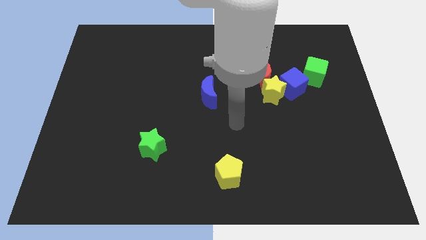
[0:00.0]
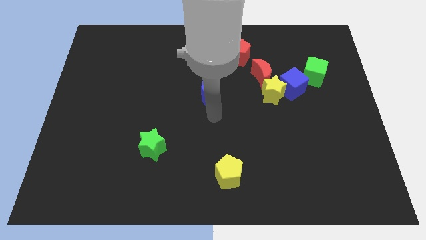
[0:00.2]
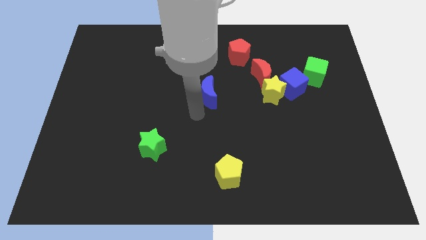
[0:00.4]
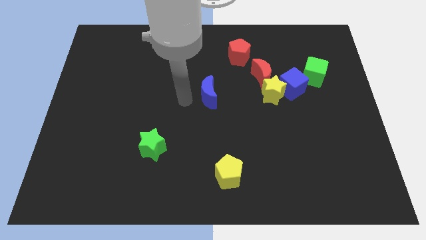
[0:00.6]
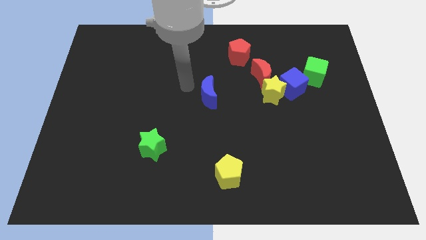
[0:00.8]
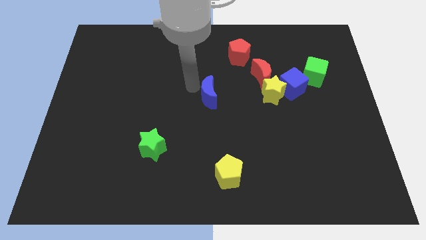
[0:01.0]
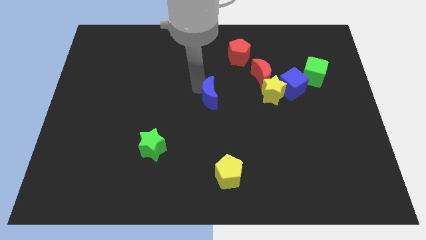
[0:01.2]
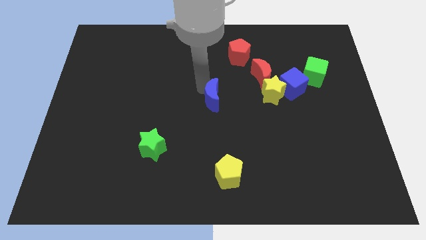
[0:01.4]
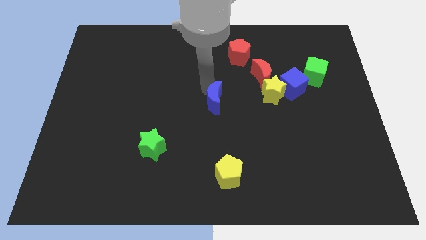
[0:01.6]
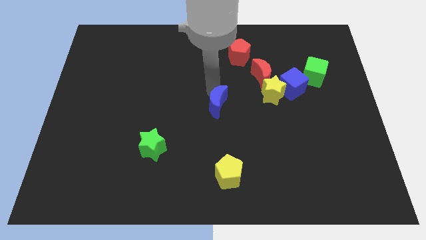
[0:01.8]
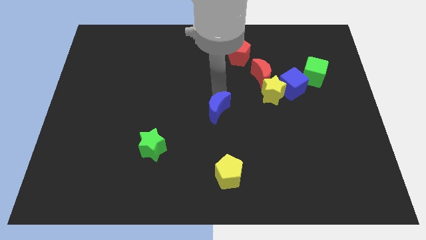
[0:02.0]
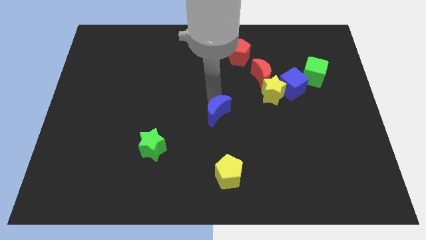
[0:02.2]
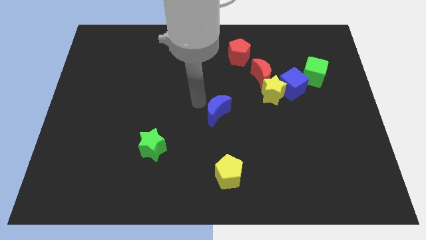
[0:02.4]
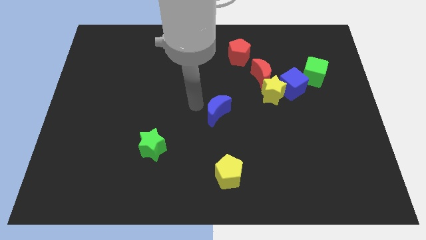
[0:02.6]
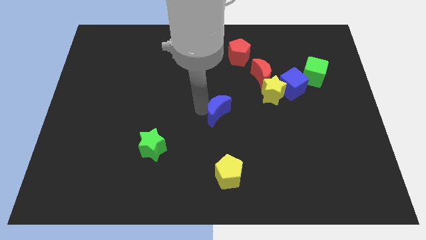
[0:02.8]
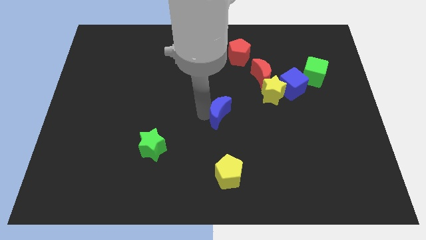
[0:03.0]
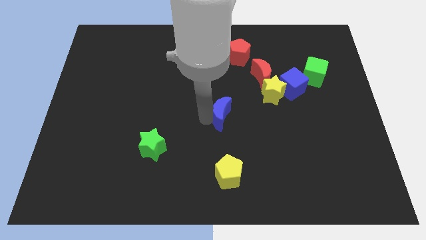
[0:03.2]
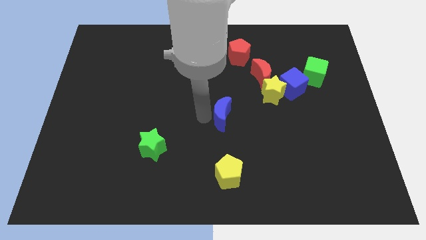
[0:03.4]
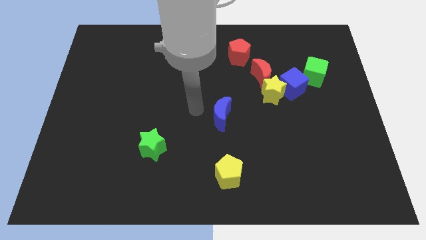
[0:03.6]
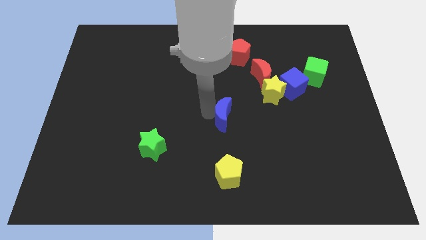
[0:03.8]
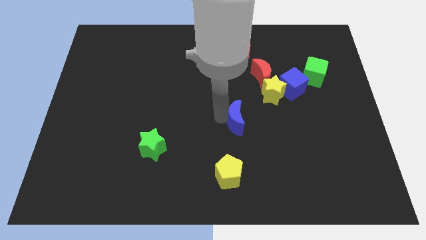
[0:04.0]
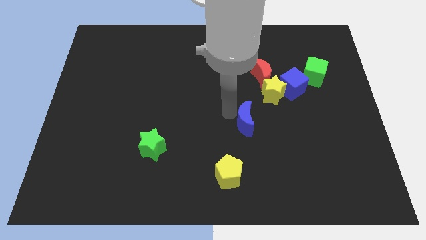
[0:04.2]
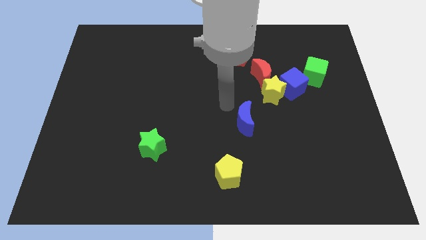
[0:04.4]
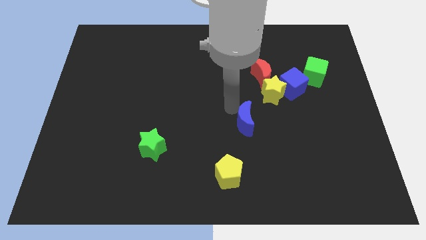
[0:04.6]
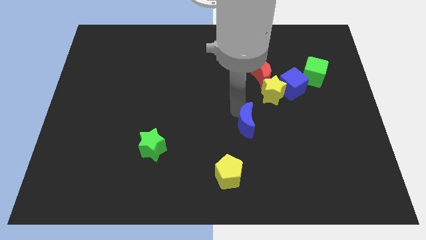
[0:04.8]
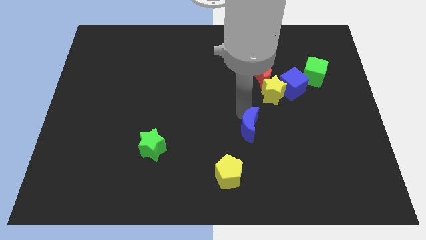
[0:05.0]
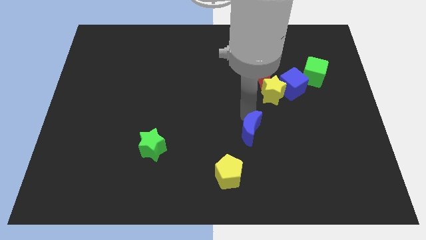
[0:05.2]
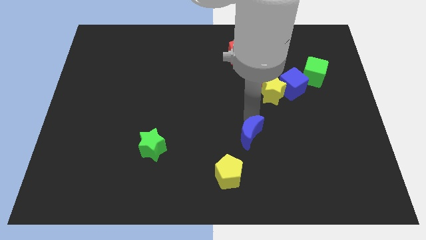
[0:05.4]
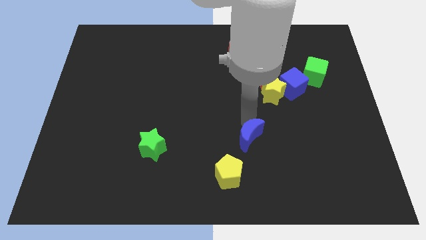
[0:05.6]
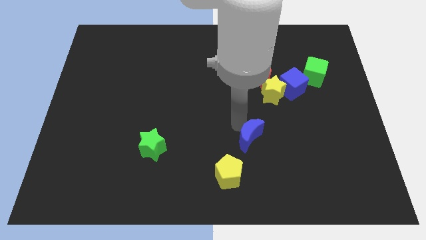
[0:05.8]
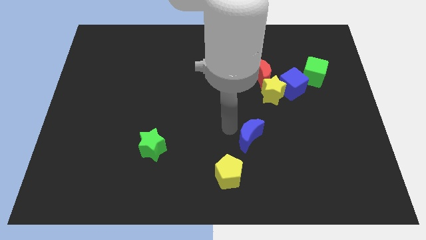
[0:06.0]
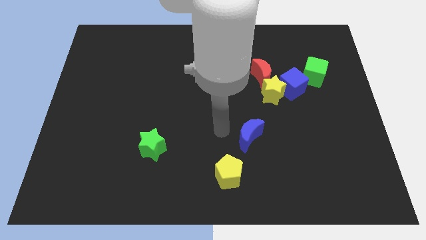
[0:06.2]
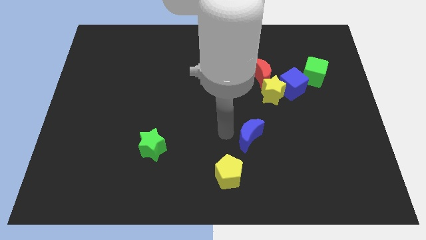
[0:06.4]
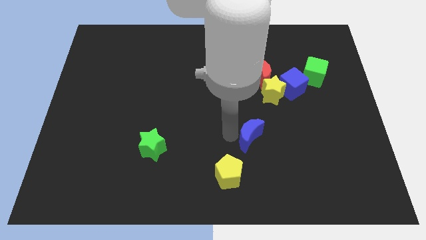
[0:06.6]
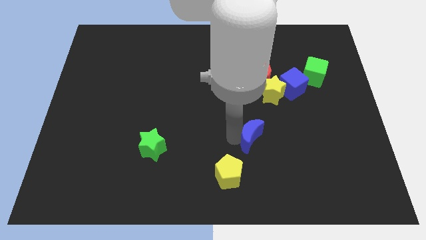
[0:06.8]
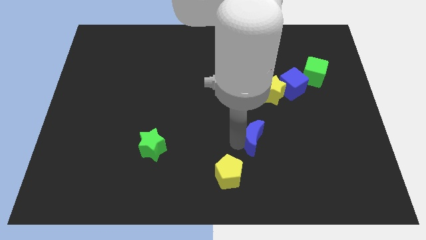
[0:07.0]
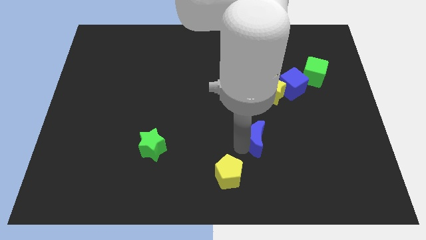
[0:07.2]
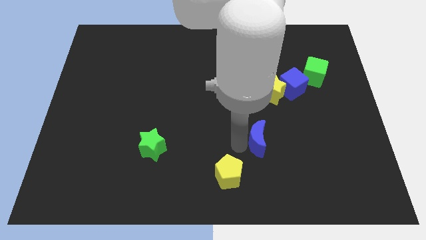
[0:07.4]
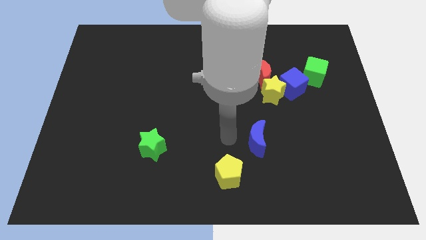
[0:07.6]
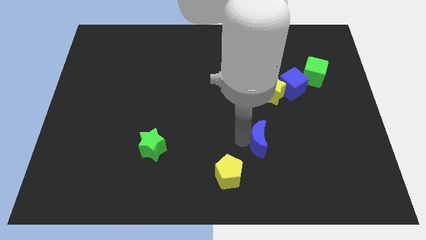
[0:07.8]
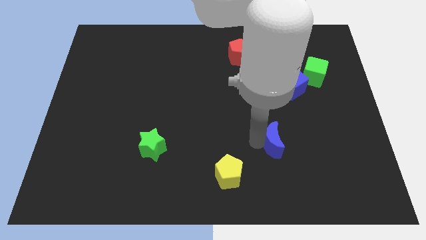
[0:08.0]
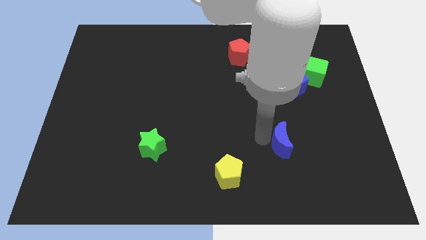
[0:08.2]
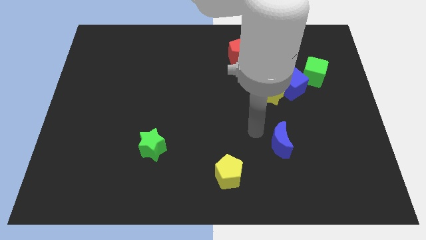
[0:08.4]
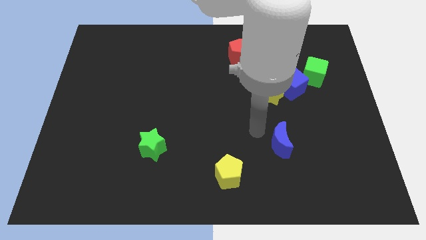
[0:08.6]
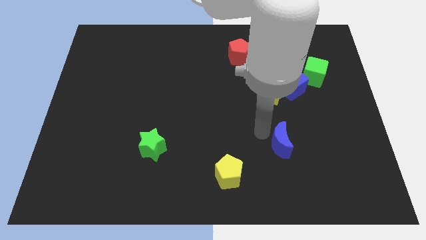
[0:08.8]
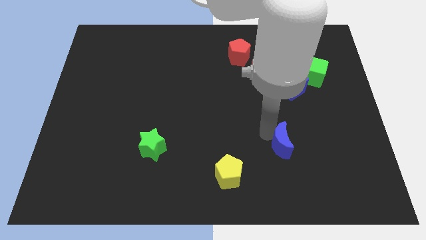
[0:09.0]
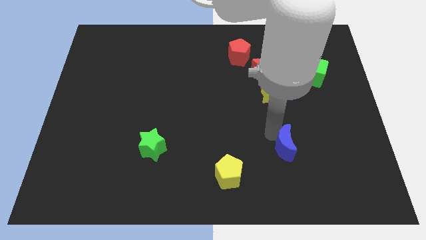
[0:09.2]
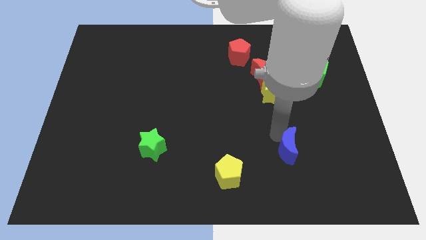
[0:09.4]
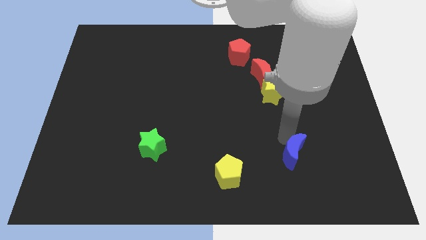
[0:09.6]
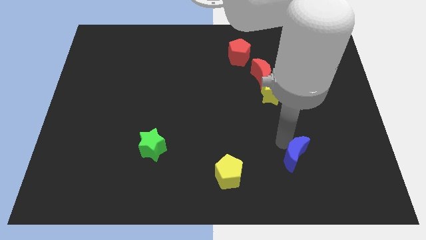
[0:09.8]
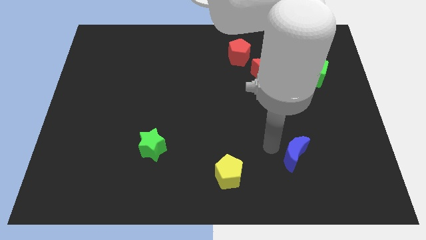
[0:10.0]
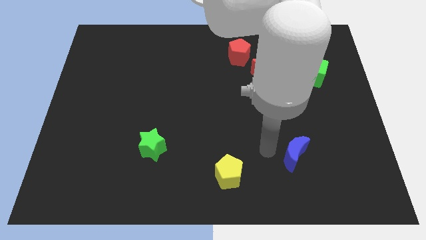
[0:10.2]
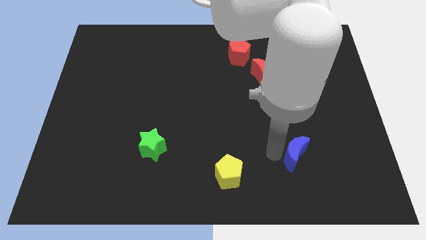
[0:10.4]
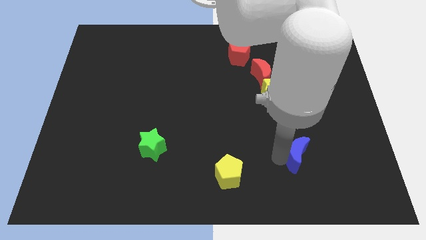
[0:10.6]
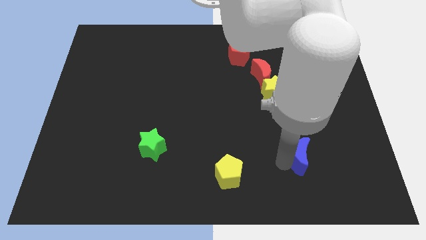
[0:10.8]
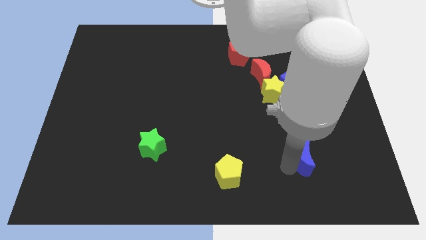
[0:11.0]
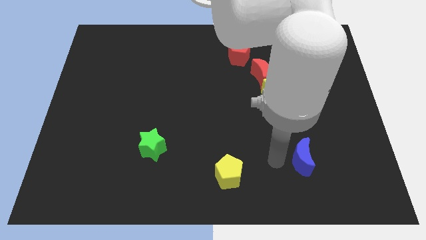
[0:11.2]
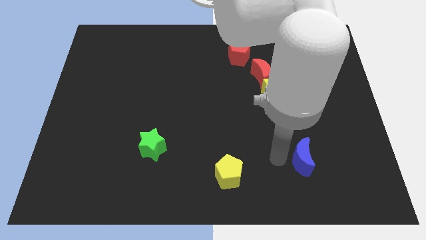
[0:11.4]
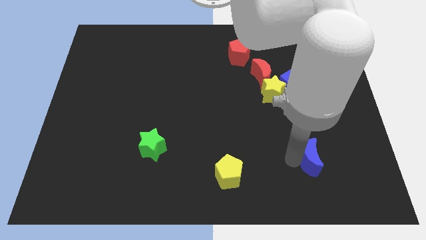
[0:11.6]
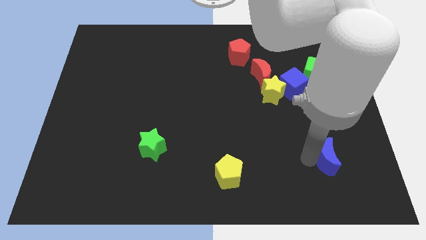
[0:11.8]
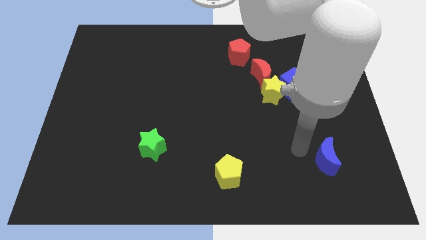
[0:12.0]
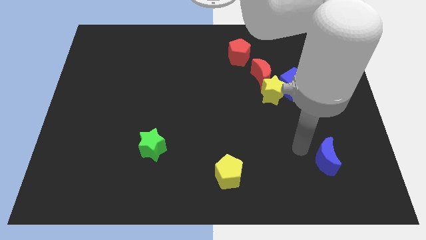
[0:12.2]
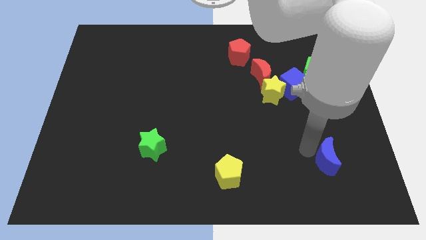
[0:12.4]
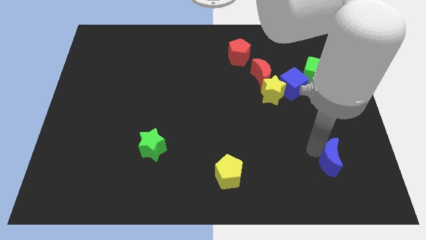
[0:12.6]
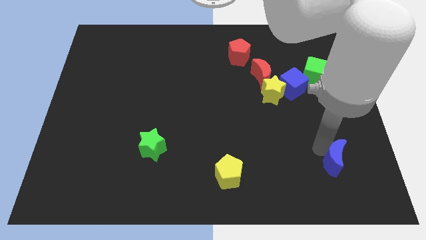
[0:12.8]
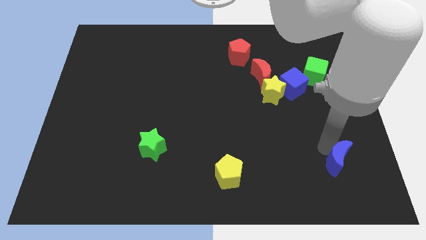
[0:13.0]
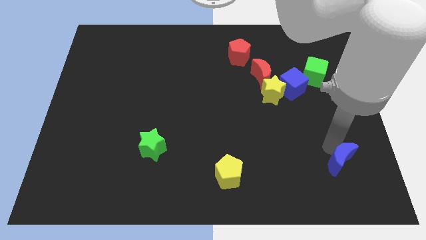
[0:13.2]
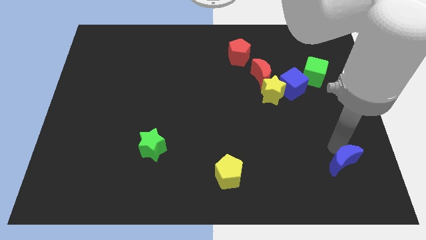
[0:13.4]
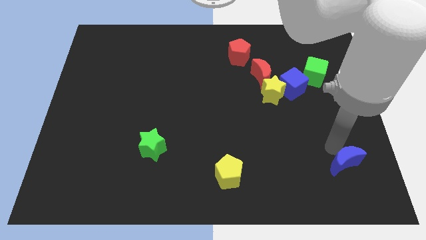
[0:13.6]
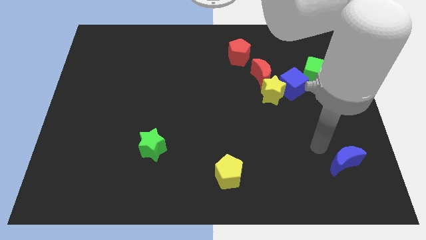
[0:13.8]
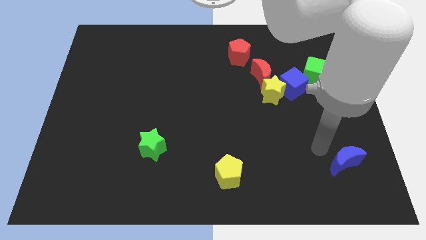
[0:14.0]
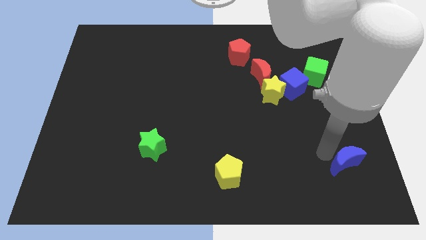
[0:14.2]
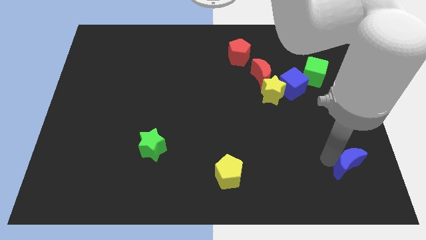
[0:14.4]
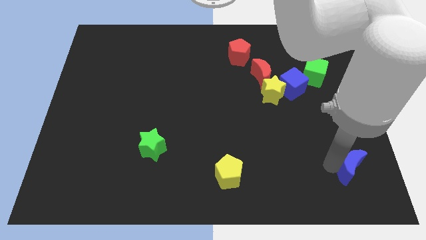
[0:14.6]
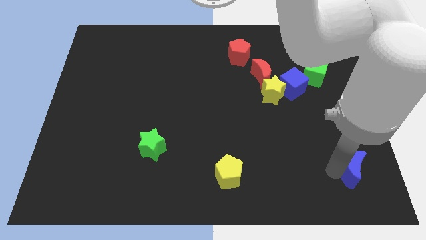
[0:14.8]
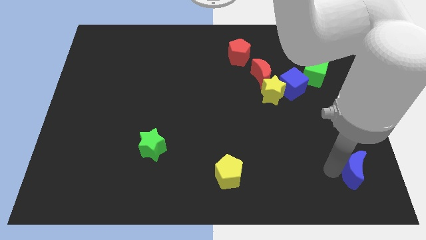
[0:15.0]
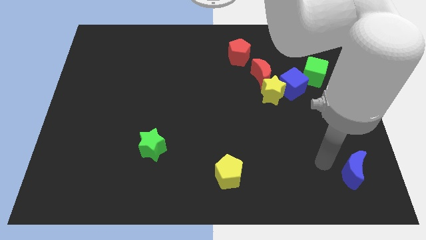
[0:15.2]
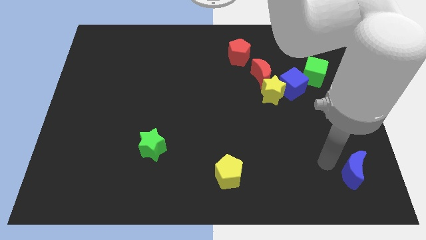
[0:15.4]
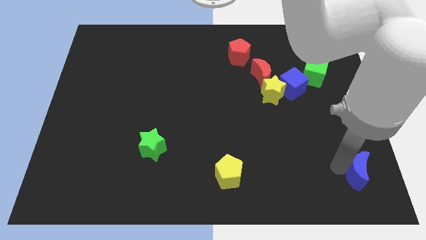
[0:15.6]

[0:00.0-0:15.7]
move the blue moon to the bottom right of the board
